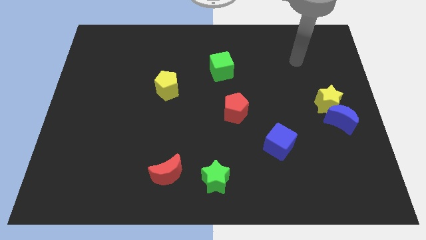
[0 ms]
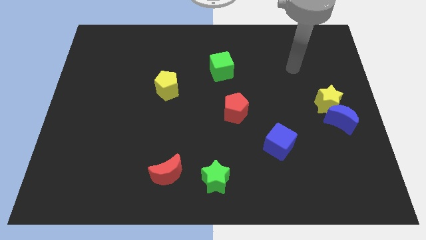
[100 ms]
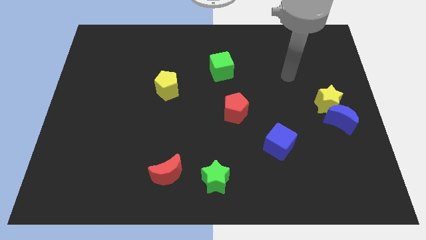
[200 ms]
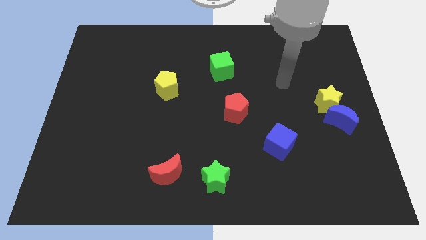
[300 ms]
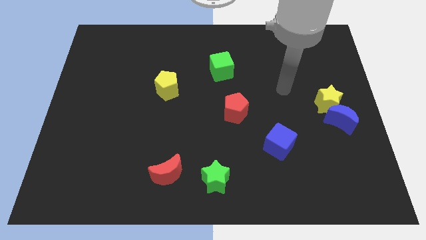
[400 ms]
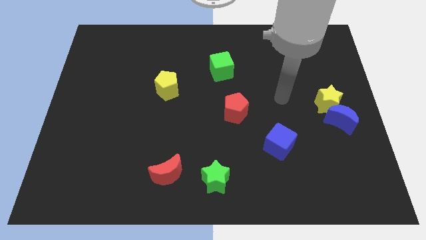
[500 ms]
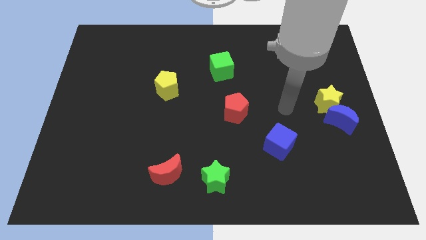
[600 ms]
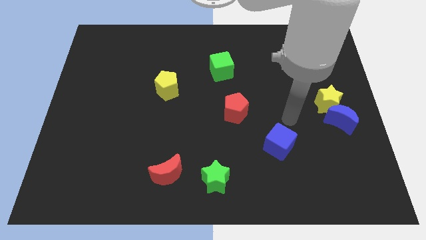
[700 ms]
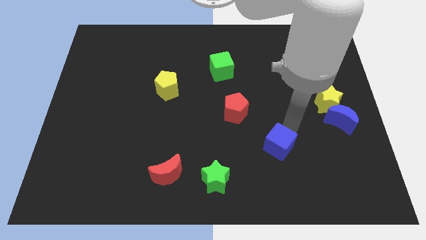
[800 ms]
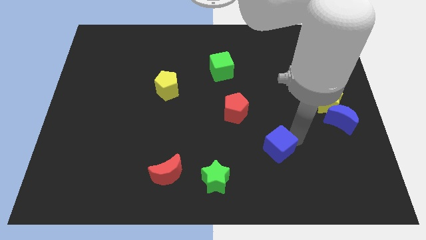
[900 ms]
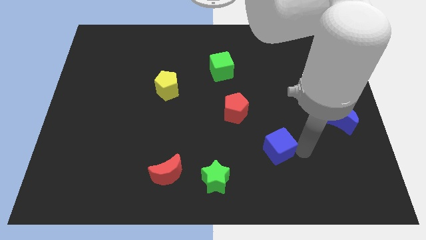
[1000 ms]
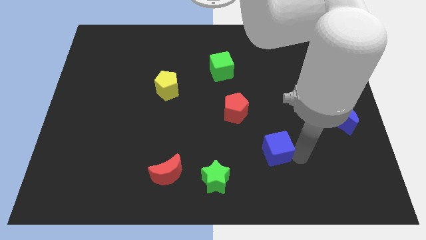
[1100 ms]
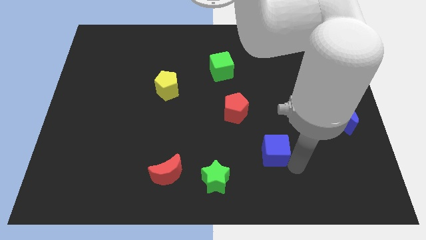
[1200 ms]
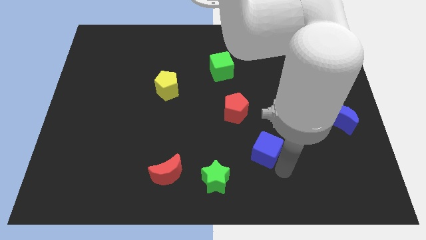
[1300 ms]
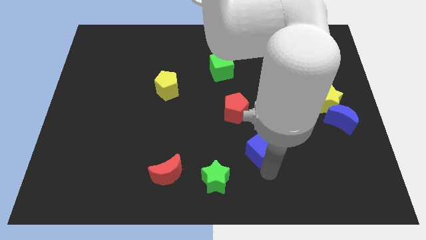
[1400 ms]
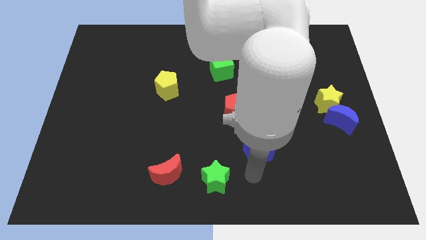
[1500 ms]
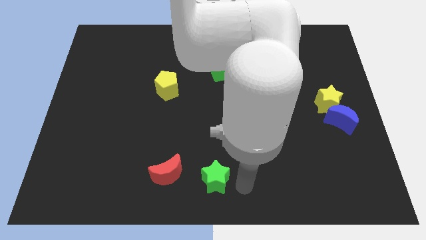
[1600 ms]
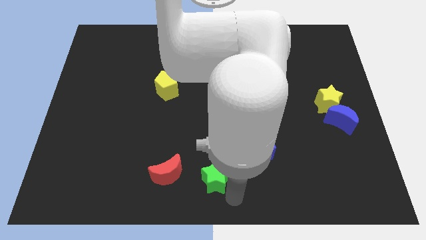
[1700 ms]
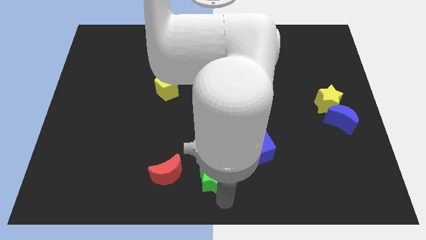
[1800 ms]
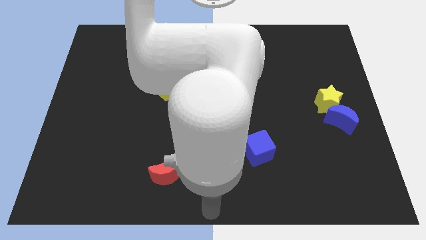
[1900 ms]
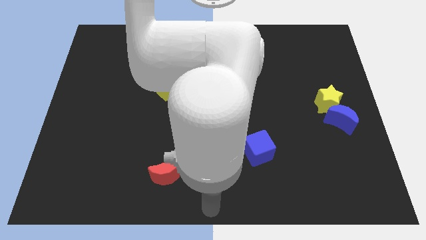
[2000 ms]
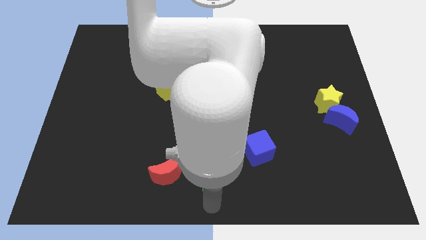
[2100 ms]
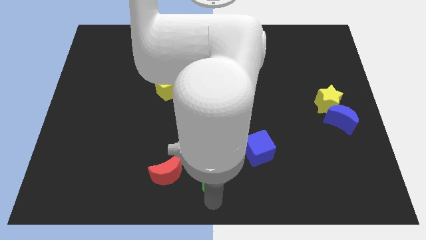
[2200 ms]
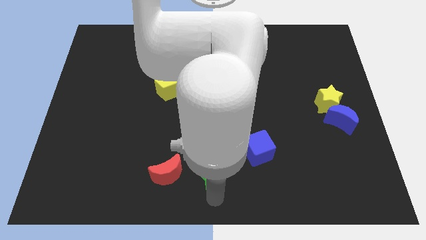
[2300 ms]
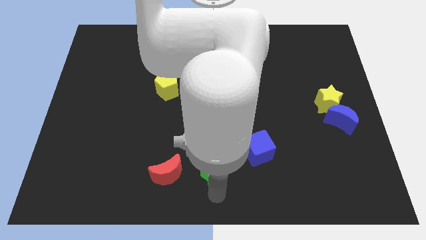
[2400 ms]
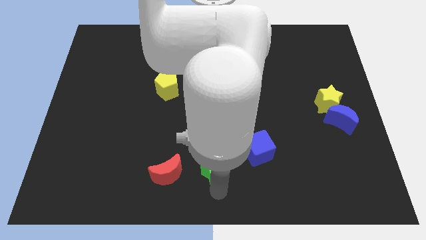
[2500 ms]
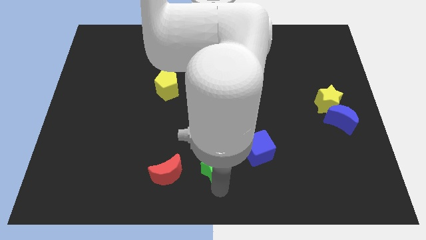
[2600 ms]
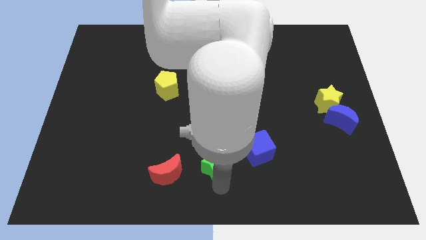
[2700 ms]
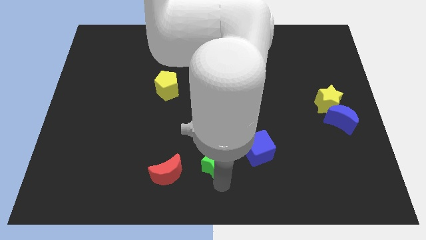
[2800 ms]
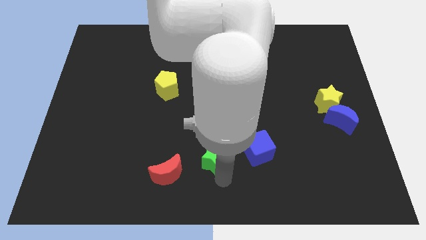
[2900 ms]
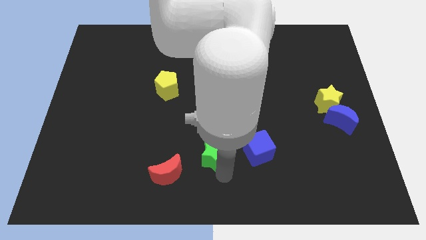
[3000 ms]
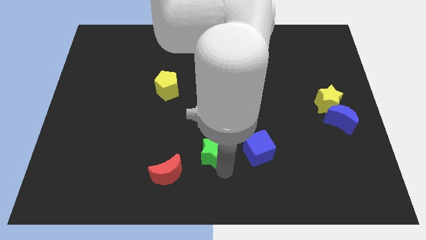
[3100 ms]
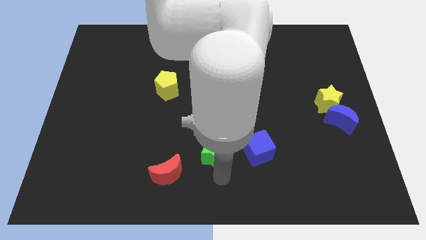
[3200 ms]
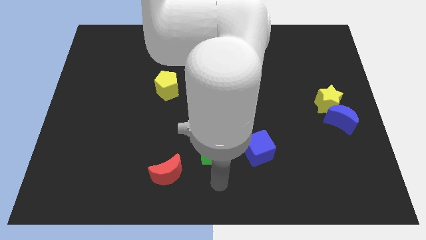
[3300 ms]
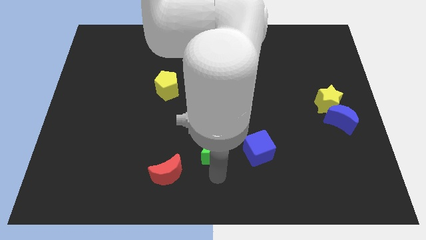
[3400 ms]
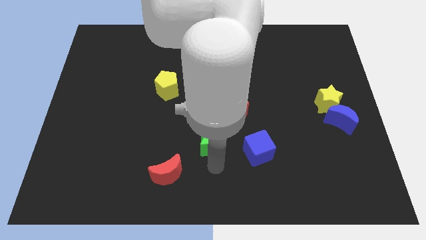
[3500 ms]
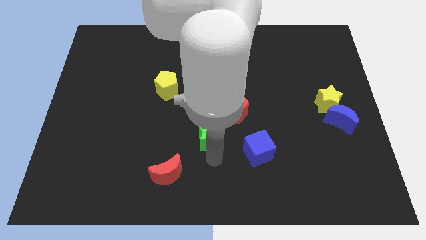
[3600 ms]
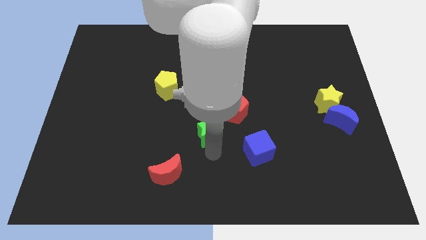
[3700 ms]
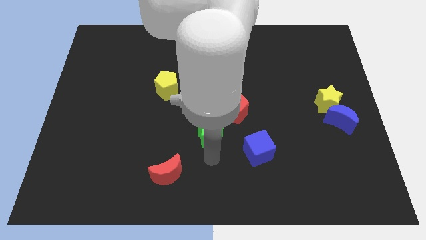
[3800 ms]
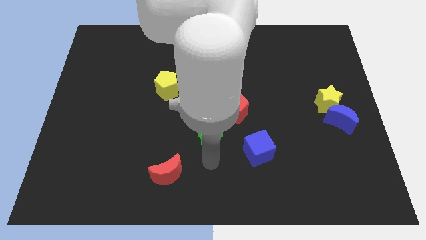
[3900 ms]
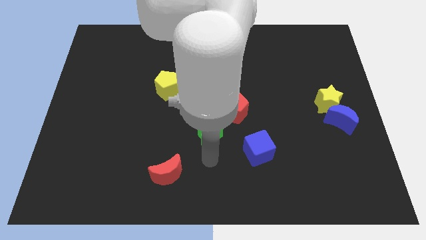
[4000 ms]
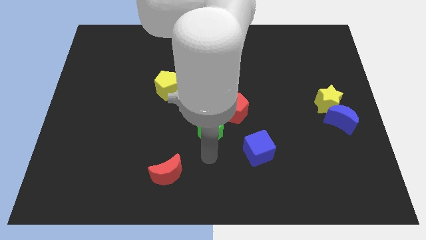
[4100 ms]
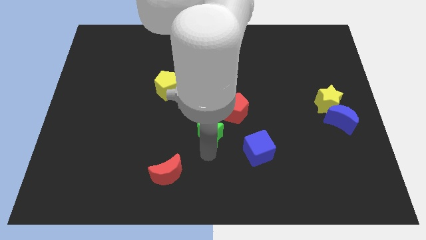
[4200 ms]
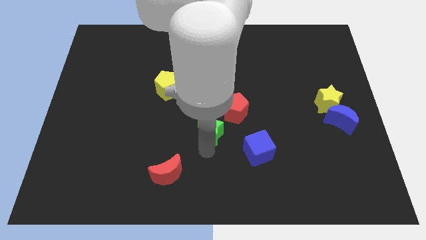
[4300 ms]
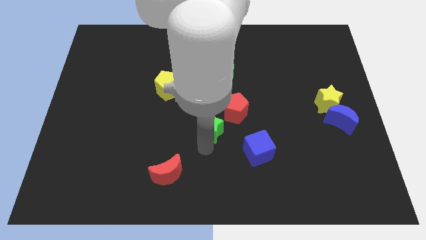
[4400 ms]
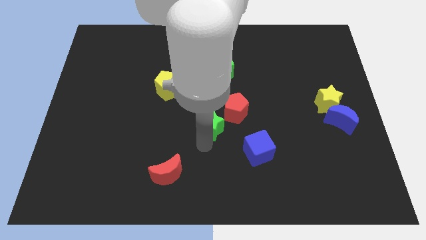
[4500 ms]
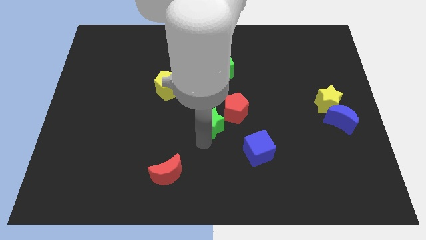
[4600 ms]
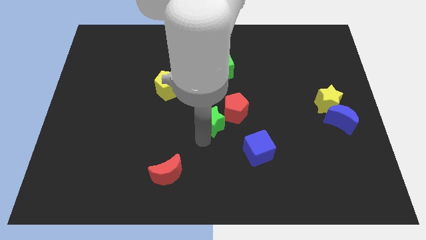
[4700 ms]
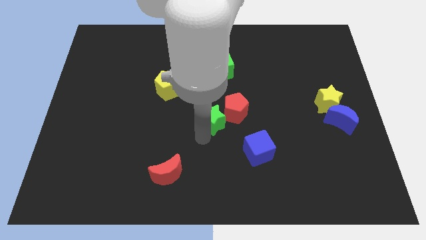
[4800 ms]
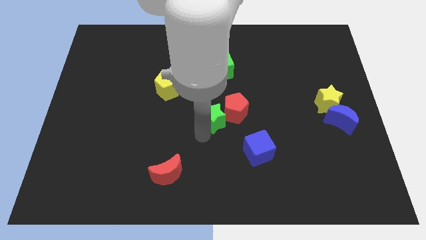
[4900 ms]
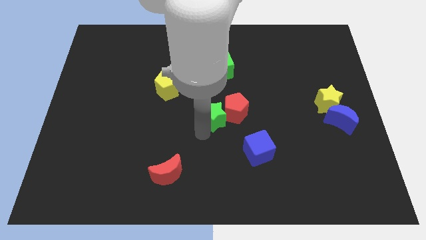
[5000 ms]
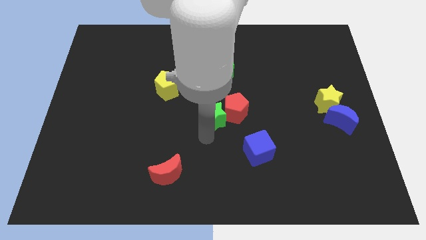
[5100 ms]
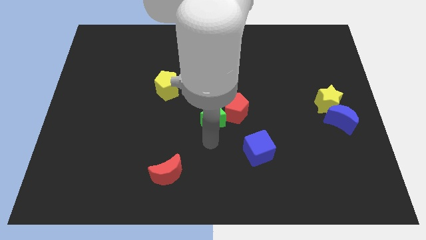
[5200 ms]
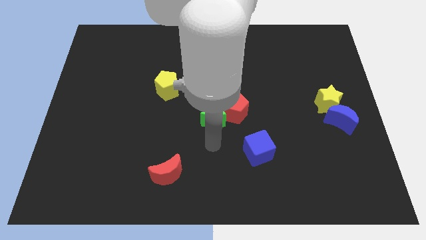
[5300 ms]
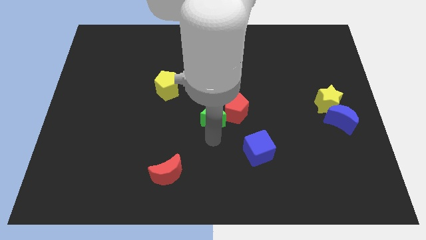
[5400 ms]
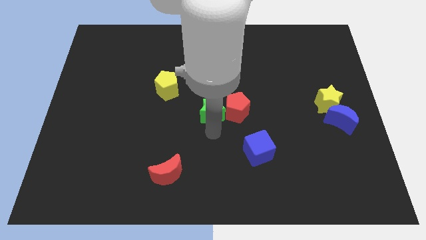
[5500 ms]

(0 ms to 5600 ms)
slide the green star to the top left of the red pentagon

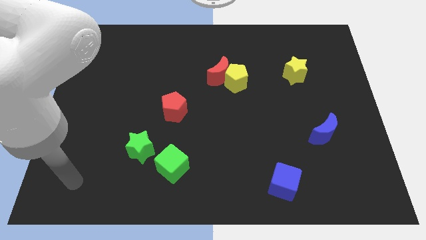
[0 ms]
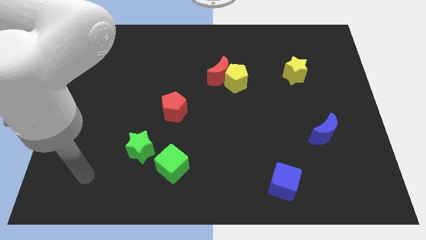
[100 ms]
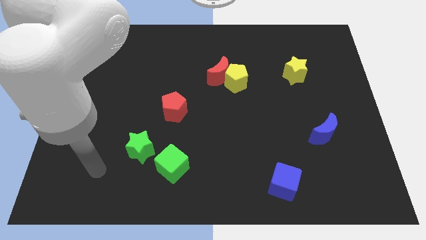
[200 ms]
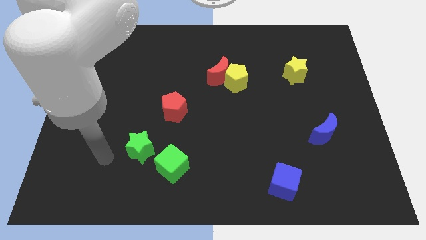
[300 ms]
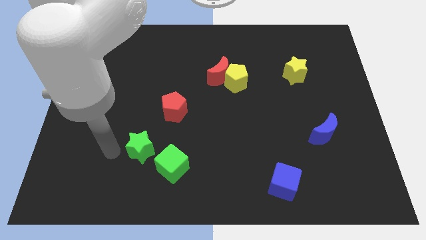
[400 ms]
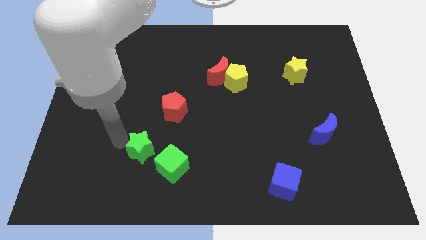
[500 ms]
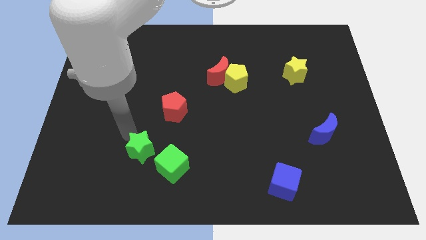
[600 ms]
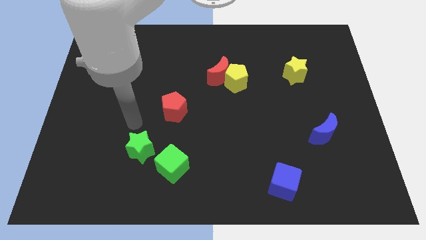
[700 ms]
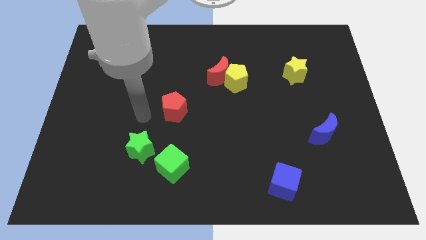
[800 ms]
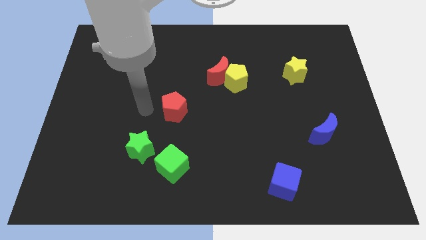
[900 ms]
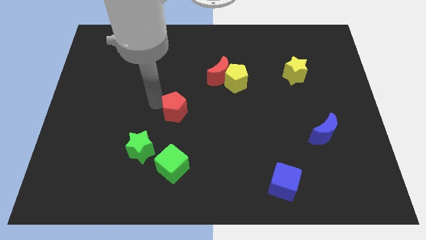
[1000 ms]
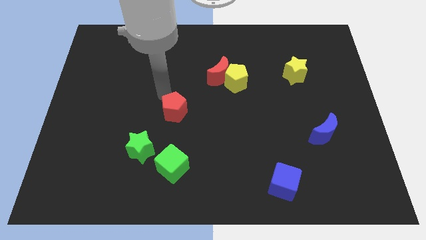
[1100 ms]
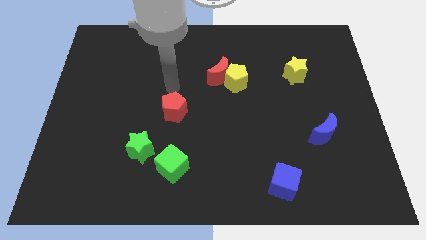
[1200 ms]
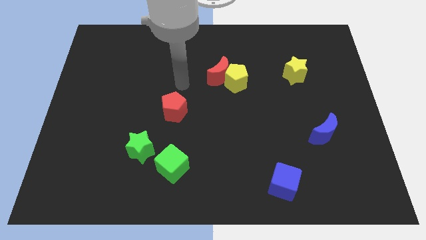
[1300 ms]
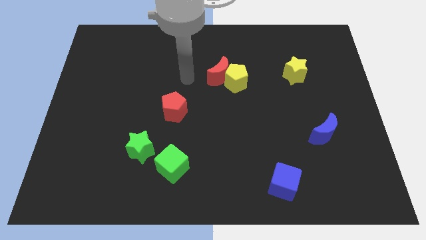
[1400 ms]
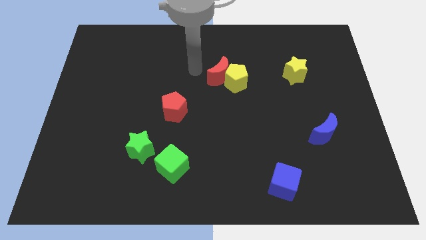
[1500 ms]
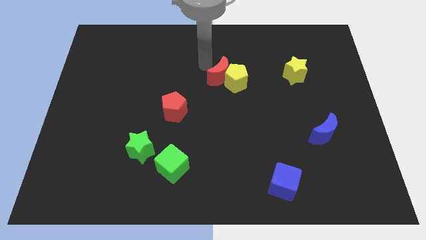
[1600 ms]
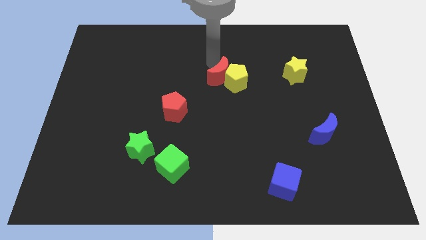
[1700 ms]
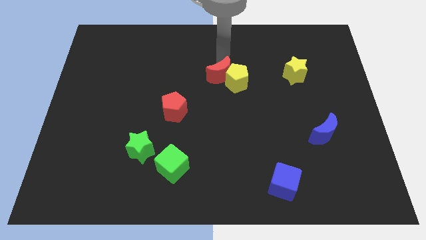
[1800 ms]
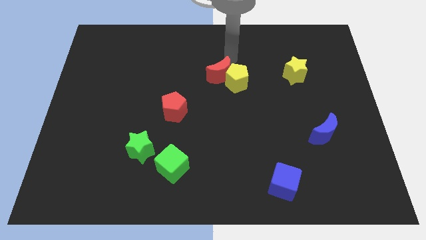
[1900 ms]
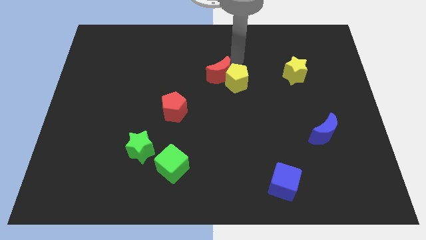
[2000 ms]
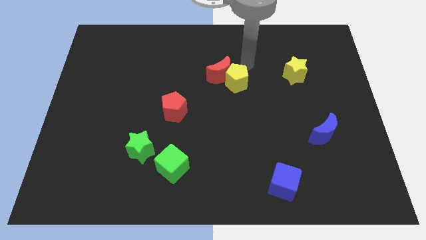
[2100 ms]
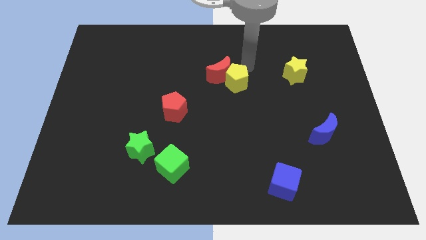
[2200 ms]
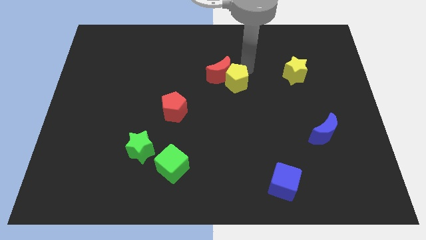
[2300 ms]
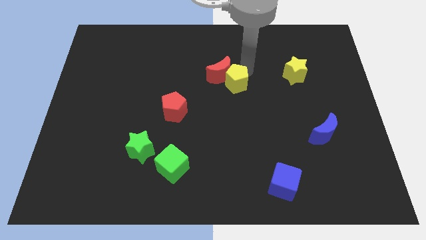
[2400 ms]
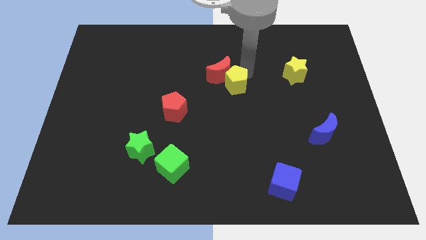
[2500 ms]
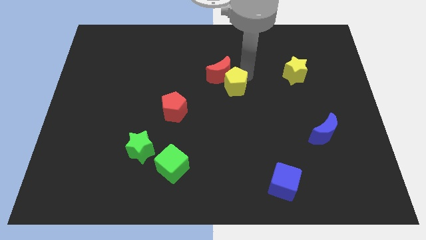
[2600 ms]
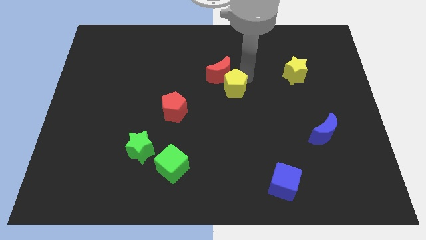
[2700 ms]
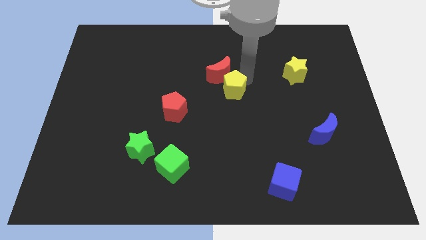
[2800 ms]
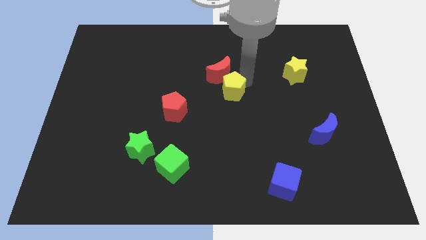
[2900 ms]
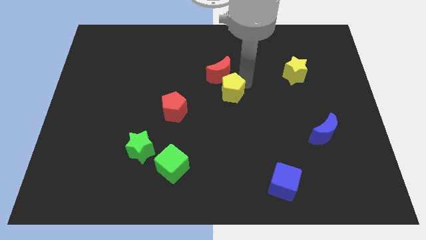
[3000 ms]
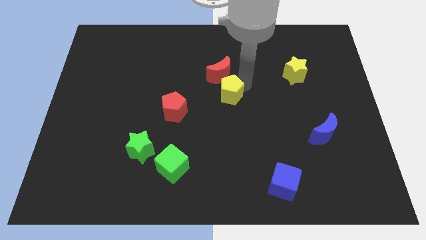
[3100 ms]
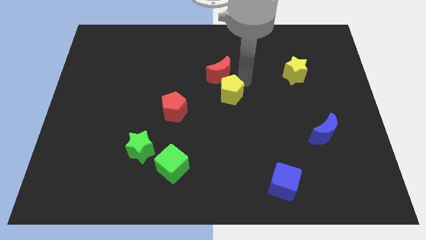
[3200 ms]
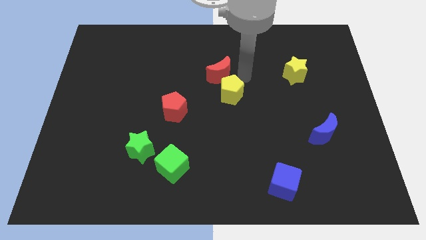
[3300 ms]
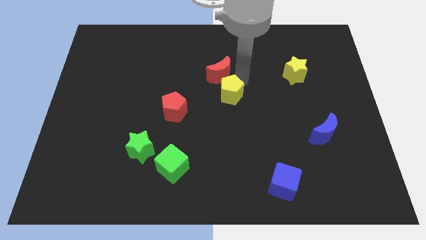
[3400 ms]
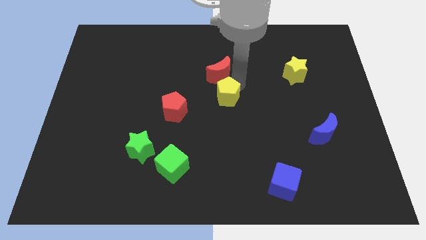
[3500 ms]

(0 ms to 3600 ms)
push the yellow pentagon to the right of the red pentagon
